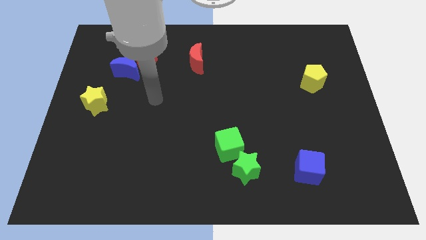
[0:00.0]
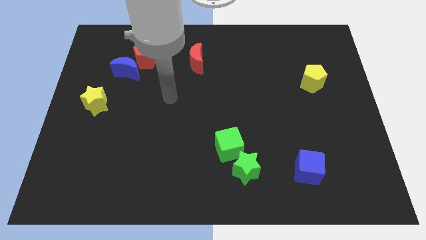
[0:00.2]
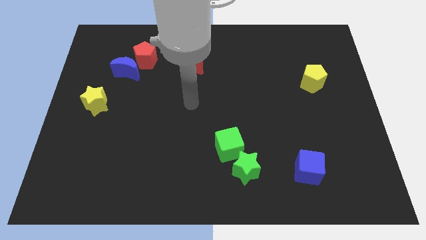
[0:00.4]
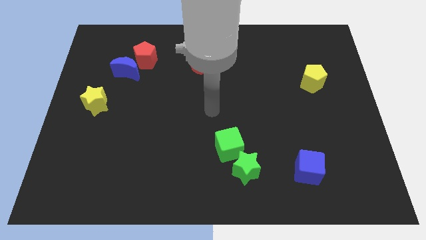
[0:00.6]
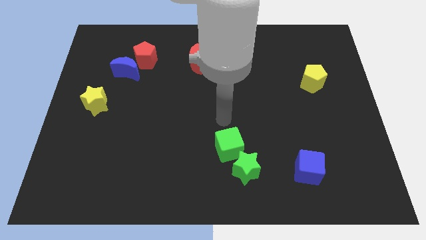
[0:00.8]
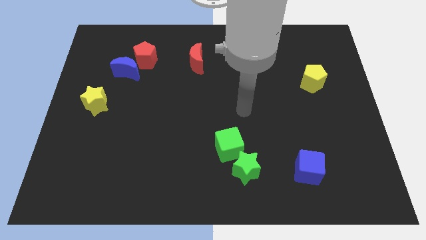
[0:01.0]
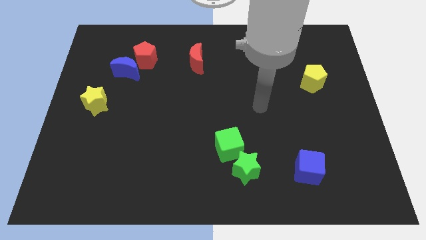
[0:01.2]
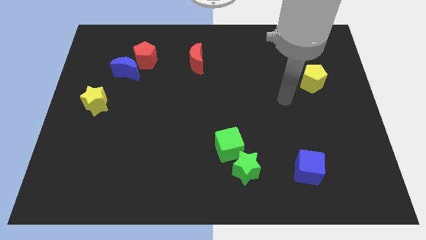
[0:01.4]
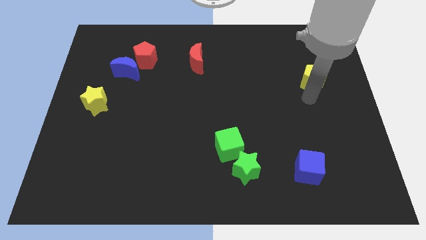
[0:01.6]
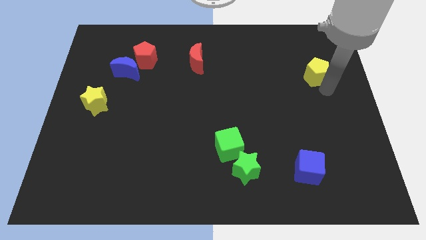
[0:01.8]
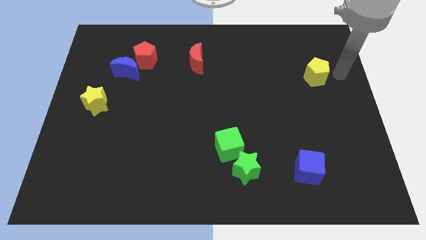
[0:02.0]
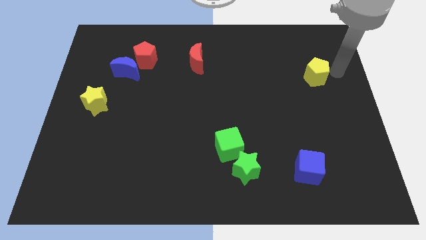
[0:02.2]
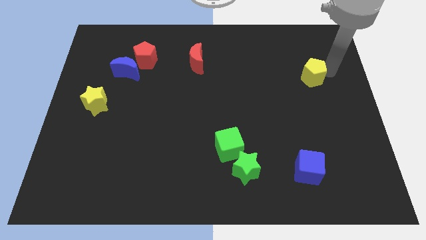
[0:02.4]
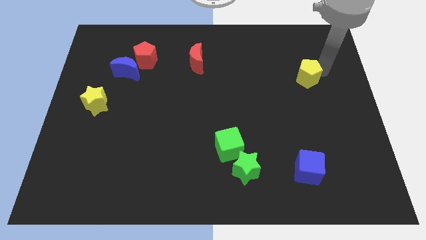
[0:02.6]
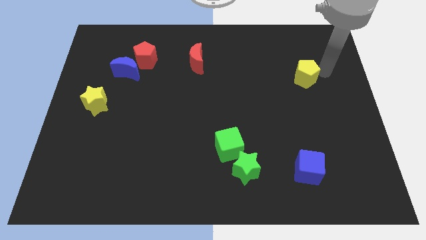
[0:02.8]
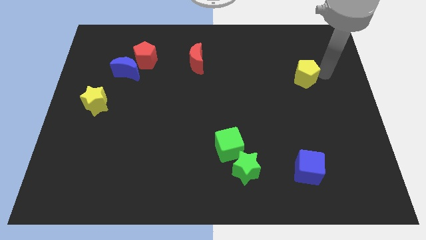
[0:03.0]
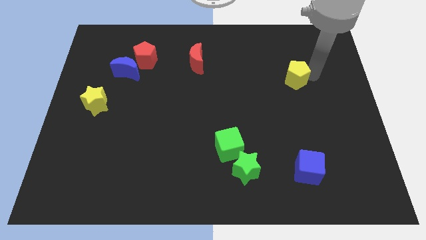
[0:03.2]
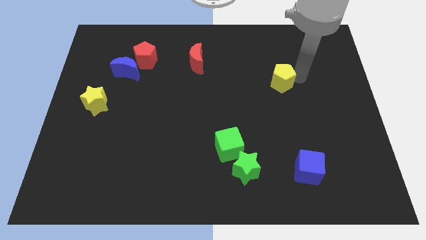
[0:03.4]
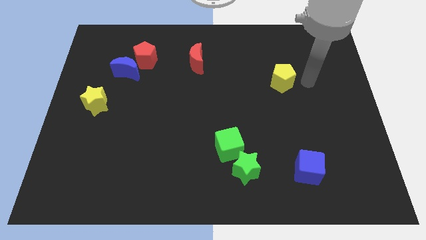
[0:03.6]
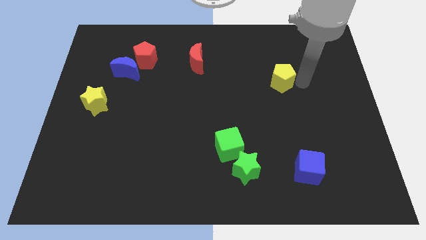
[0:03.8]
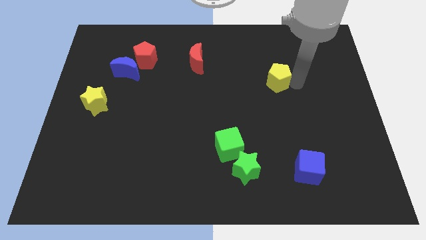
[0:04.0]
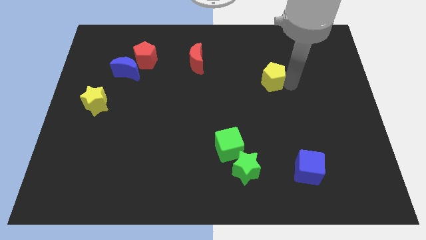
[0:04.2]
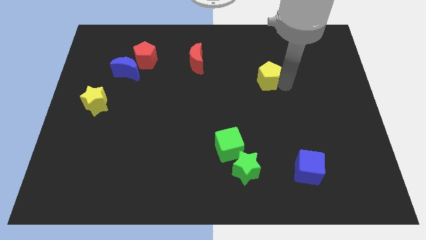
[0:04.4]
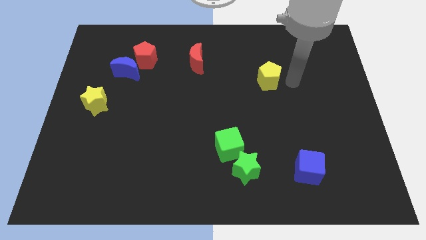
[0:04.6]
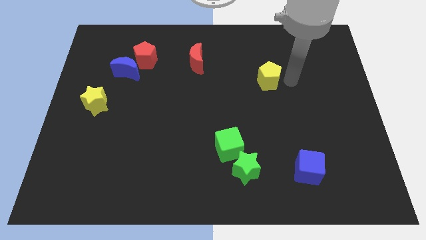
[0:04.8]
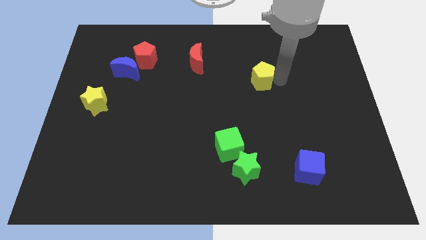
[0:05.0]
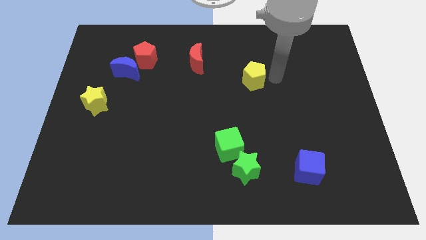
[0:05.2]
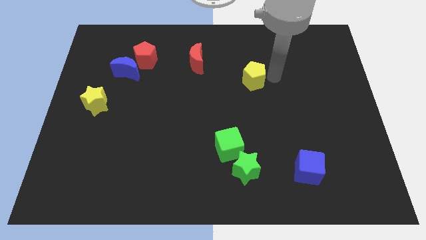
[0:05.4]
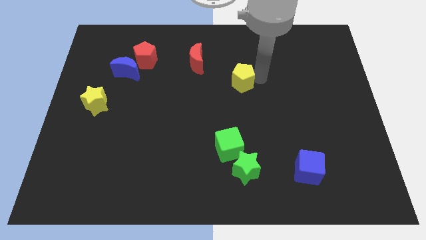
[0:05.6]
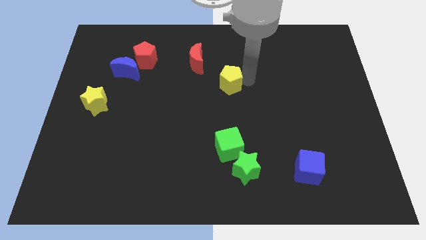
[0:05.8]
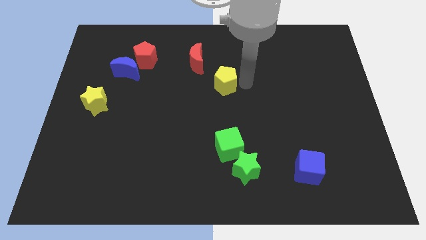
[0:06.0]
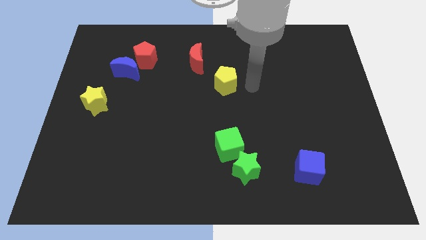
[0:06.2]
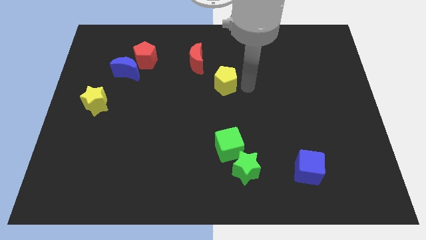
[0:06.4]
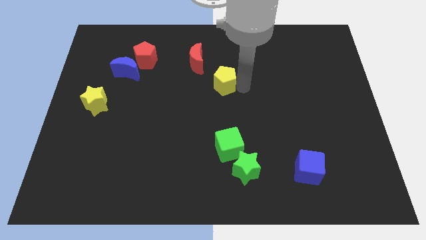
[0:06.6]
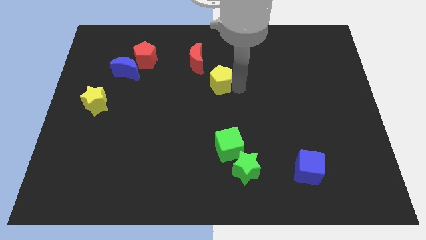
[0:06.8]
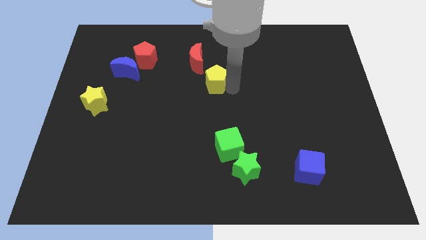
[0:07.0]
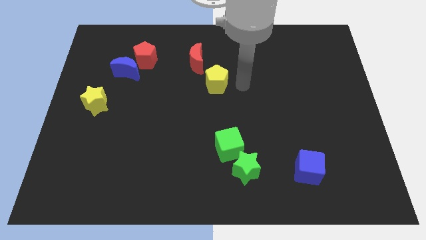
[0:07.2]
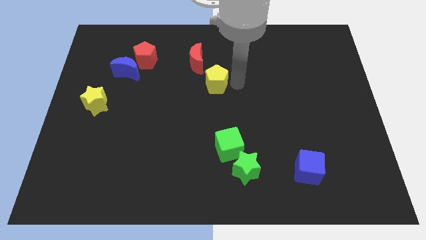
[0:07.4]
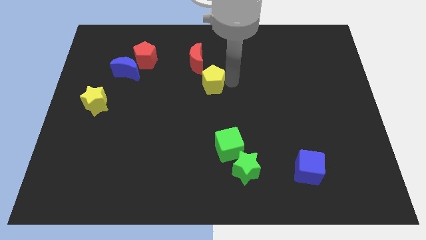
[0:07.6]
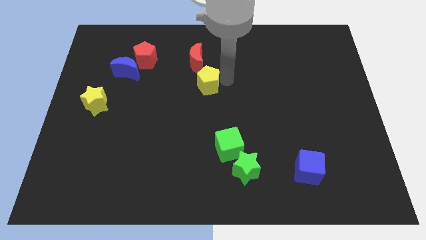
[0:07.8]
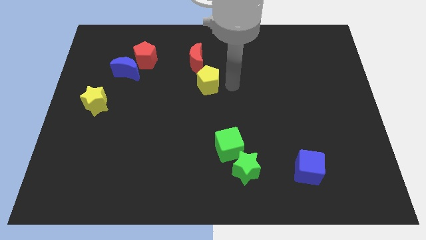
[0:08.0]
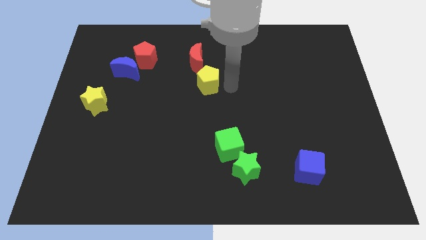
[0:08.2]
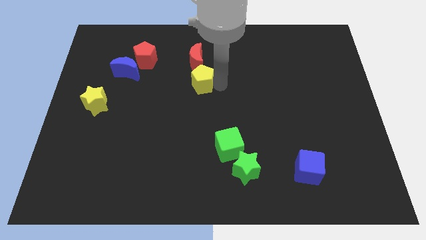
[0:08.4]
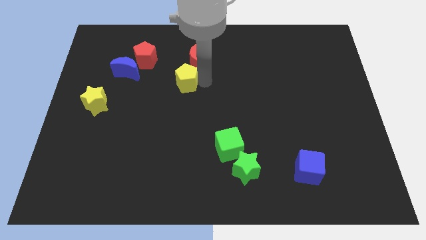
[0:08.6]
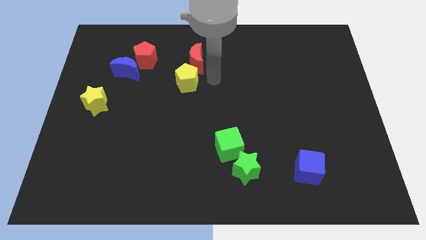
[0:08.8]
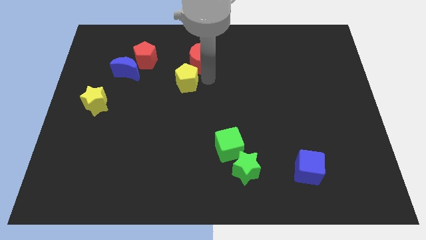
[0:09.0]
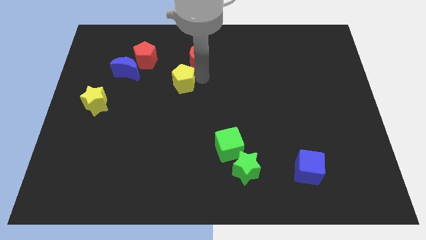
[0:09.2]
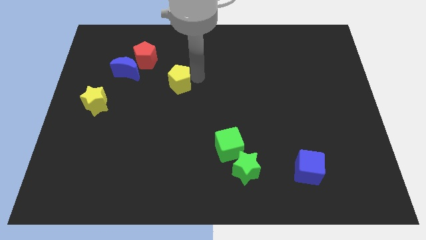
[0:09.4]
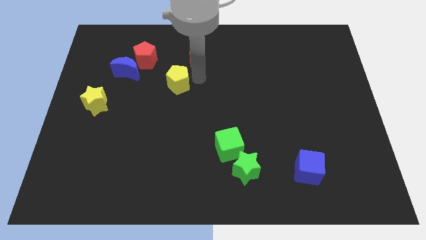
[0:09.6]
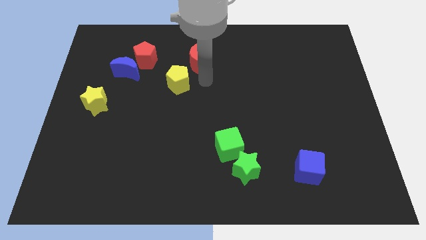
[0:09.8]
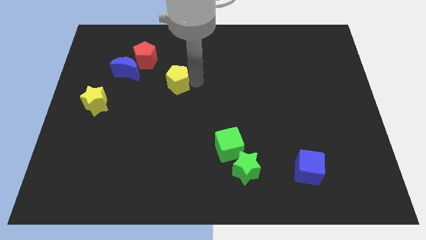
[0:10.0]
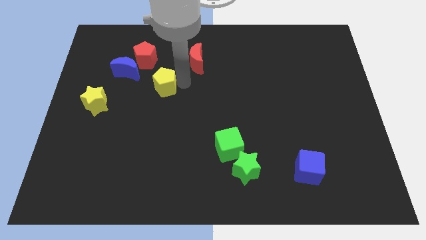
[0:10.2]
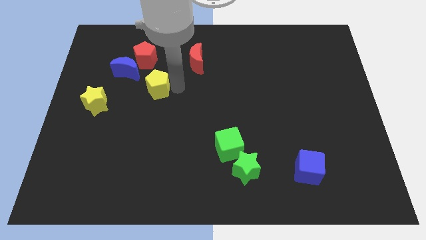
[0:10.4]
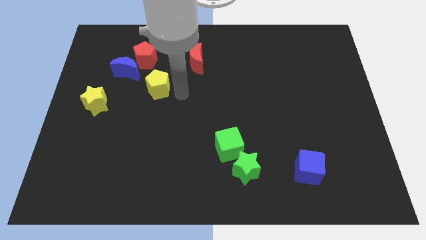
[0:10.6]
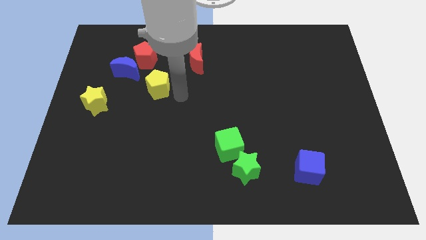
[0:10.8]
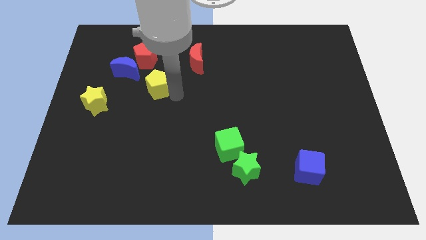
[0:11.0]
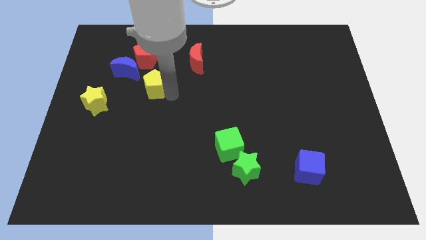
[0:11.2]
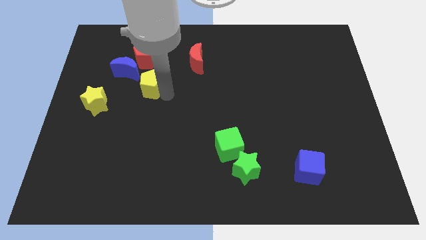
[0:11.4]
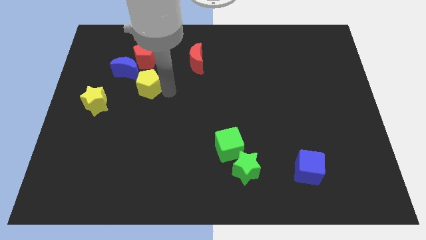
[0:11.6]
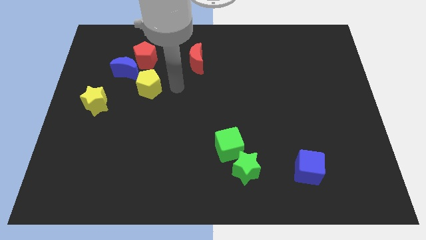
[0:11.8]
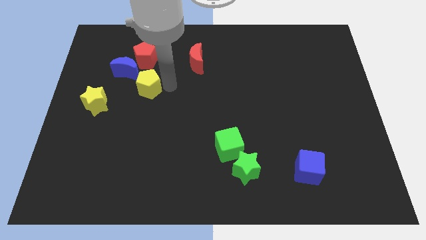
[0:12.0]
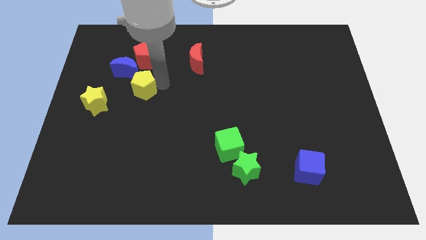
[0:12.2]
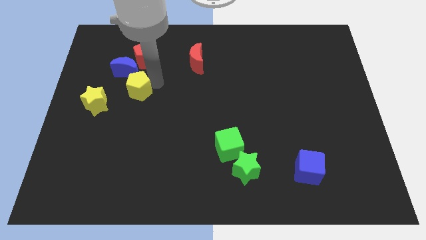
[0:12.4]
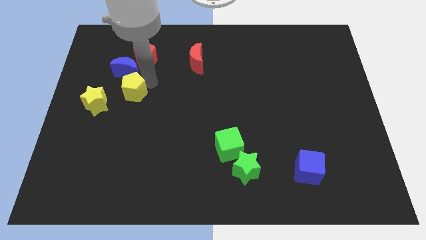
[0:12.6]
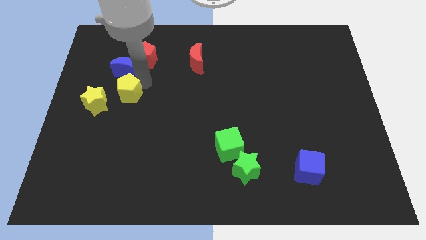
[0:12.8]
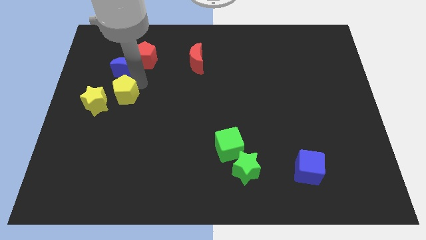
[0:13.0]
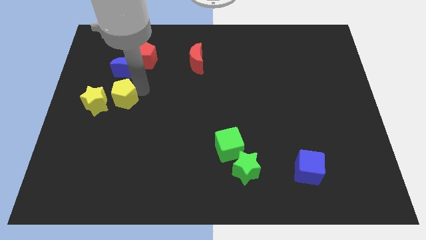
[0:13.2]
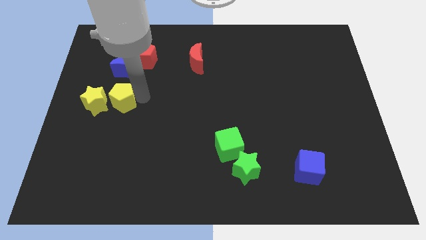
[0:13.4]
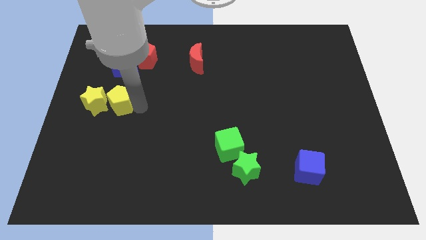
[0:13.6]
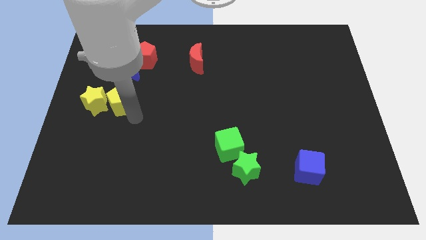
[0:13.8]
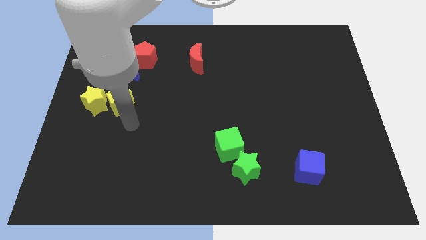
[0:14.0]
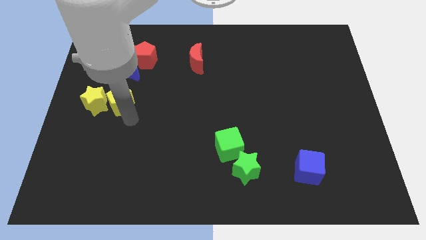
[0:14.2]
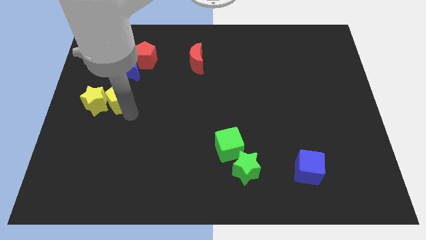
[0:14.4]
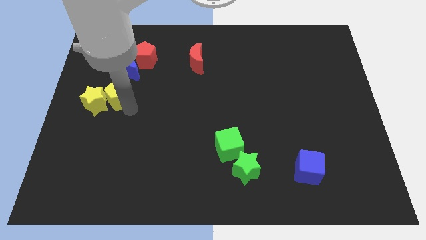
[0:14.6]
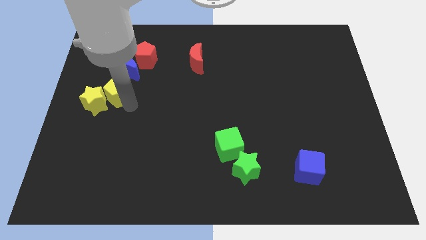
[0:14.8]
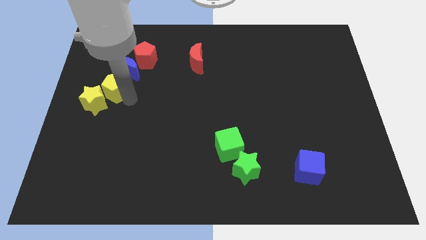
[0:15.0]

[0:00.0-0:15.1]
push the yellow pentagon to the top of the yellow star
